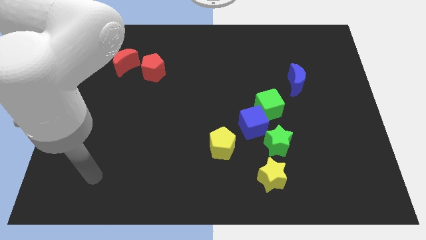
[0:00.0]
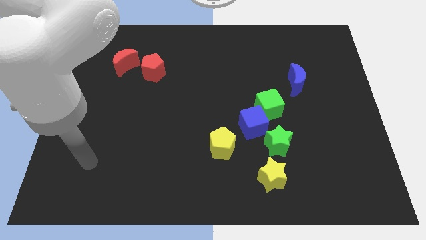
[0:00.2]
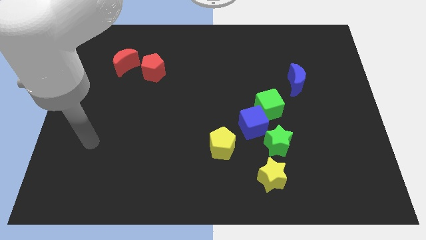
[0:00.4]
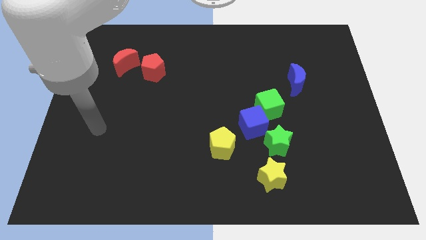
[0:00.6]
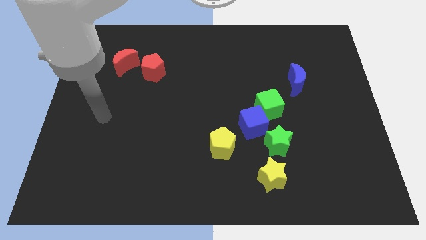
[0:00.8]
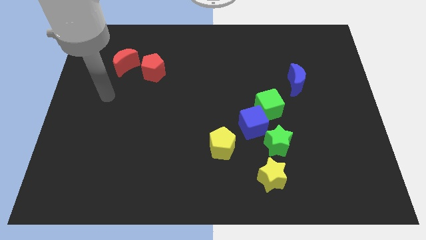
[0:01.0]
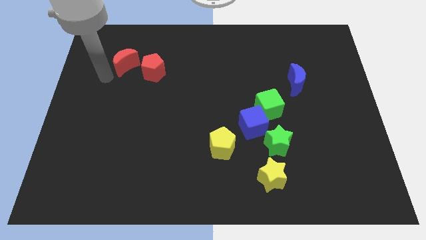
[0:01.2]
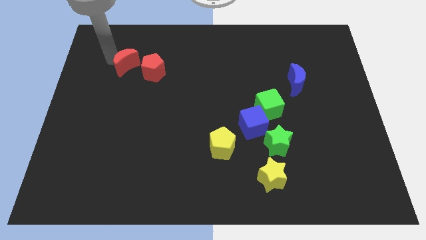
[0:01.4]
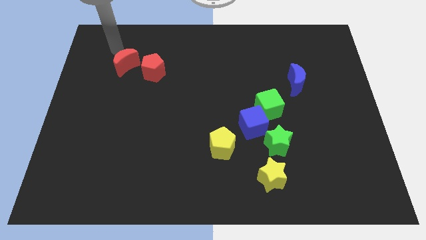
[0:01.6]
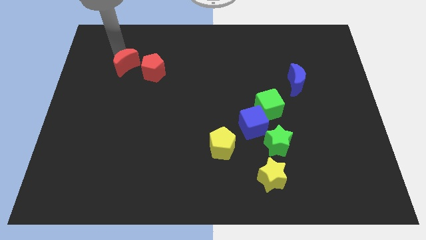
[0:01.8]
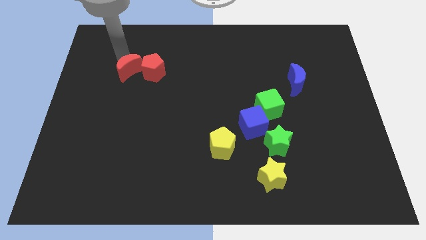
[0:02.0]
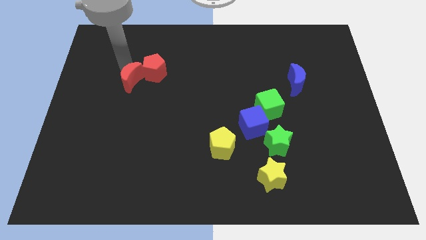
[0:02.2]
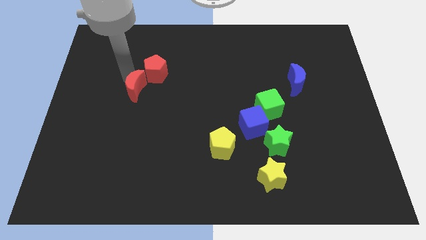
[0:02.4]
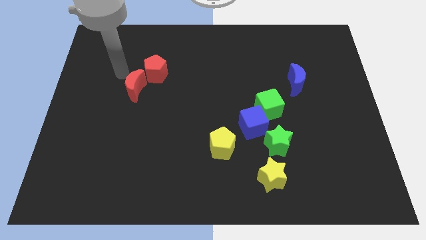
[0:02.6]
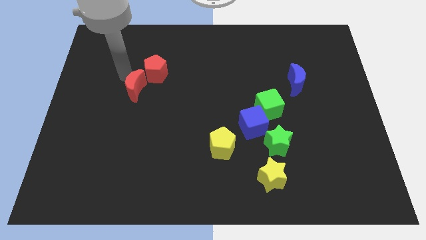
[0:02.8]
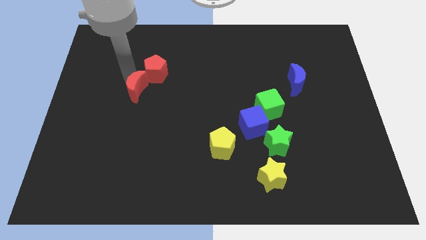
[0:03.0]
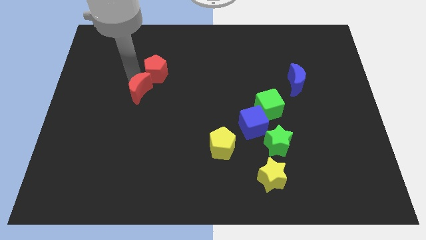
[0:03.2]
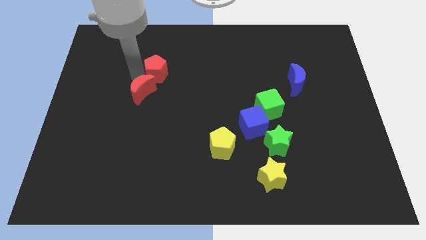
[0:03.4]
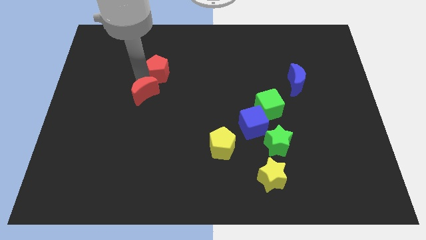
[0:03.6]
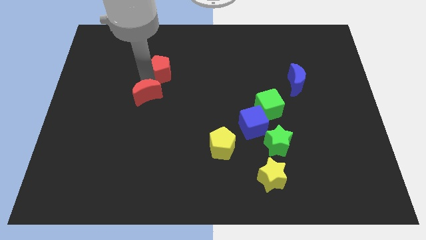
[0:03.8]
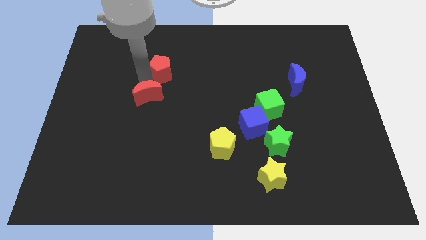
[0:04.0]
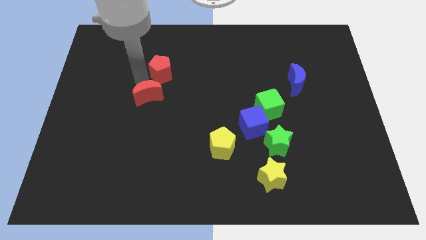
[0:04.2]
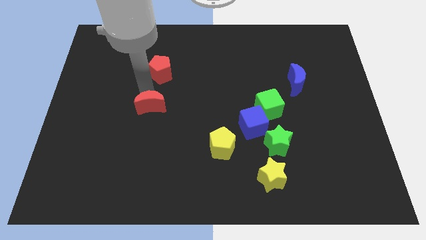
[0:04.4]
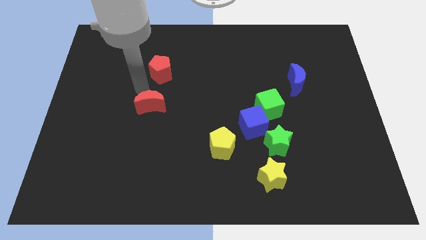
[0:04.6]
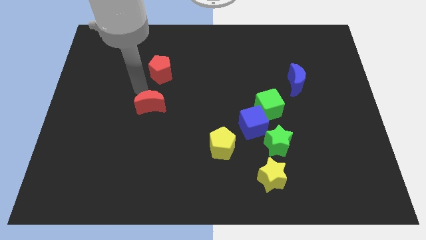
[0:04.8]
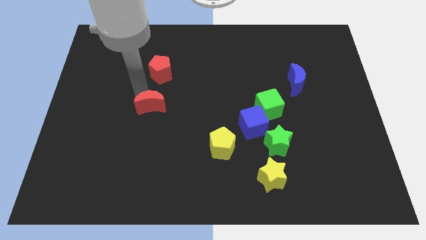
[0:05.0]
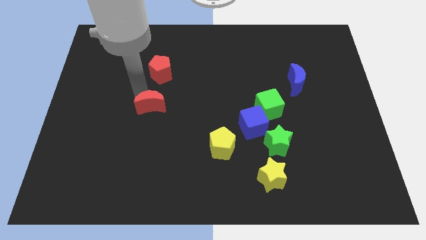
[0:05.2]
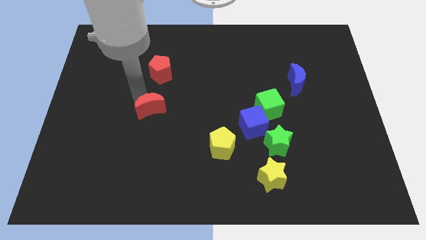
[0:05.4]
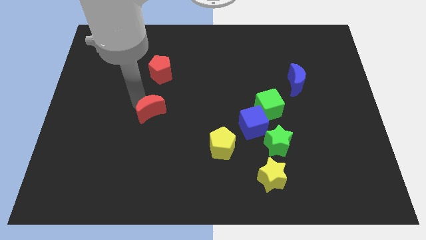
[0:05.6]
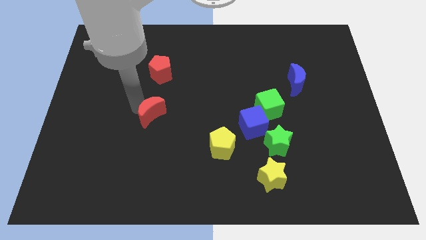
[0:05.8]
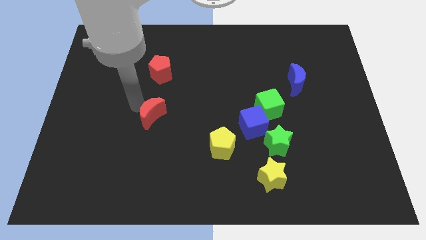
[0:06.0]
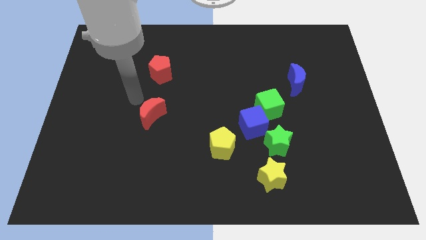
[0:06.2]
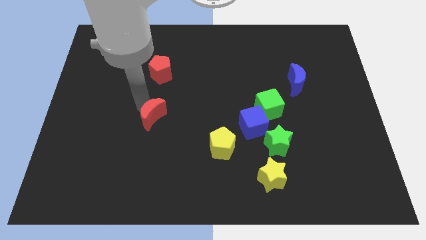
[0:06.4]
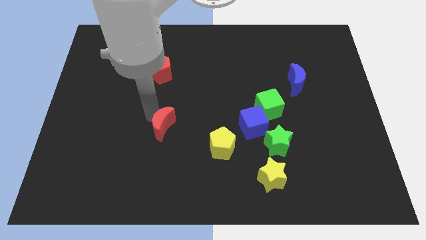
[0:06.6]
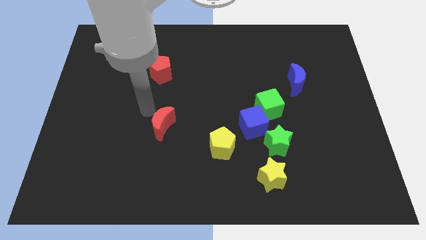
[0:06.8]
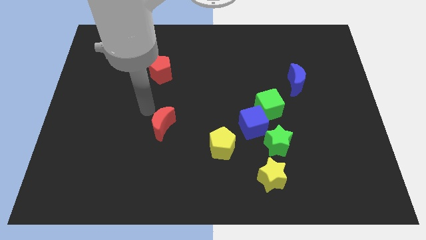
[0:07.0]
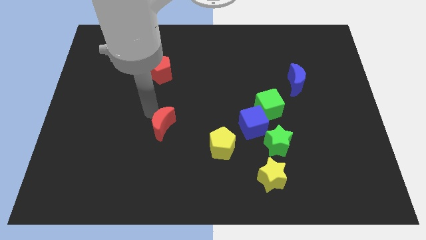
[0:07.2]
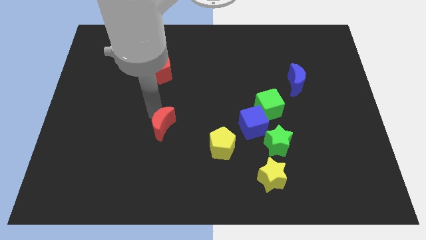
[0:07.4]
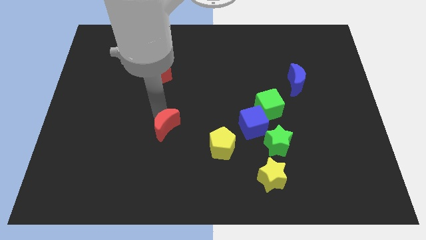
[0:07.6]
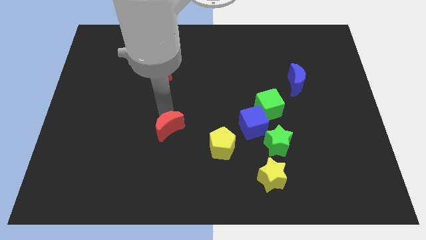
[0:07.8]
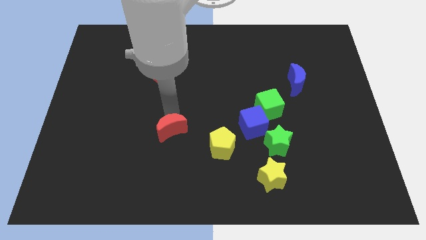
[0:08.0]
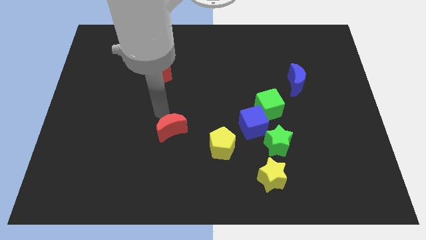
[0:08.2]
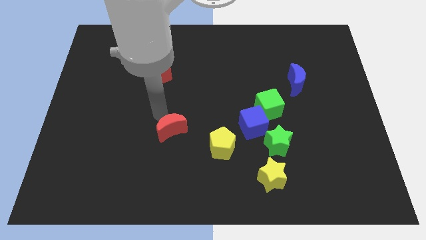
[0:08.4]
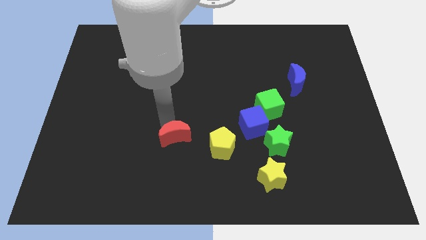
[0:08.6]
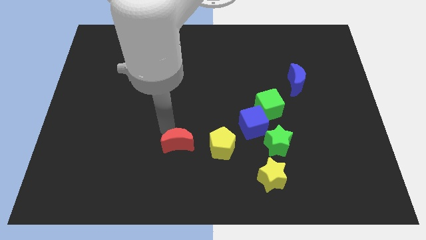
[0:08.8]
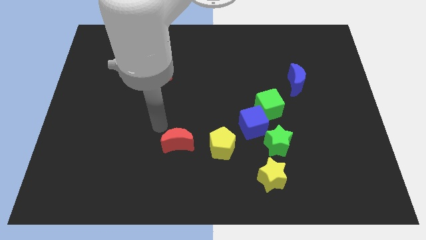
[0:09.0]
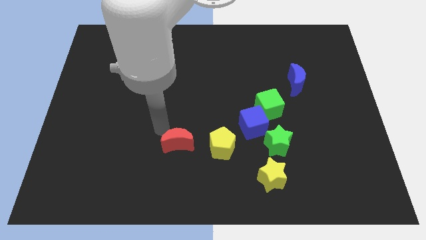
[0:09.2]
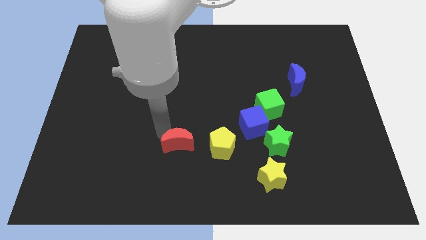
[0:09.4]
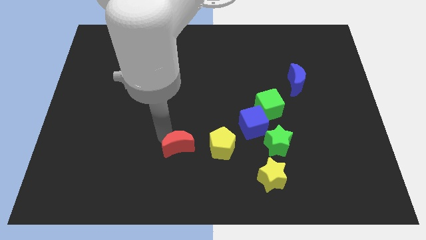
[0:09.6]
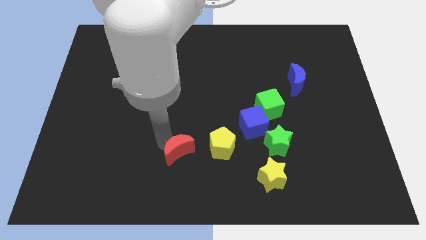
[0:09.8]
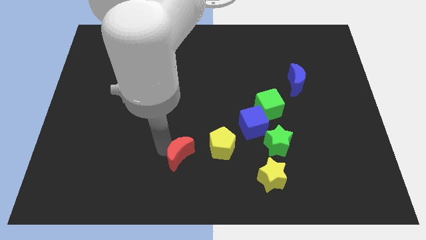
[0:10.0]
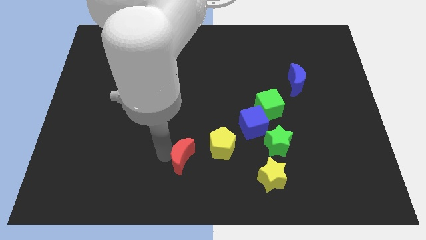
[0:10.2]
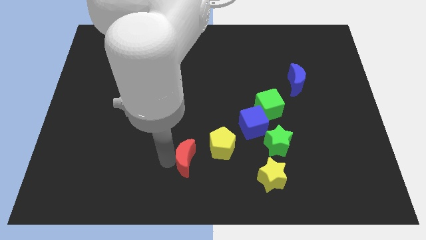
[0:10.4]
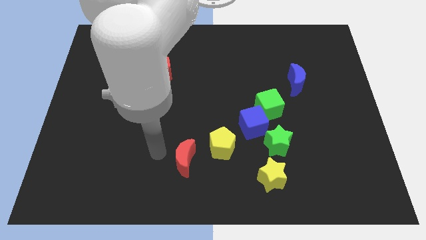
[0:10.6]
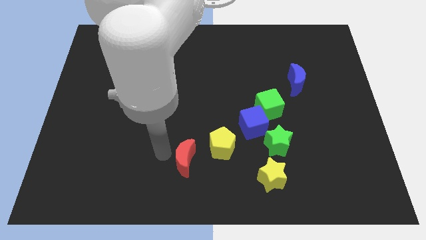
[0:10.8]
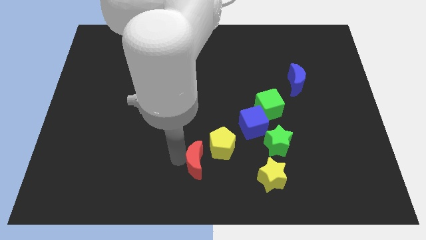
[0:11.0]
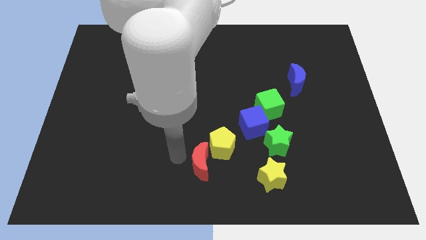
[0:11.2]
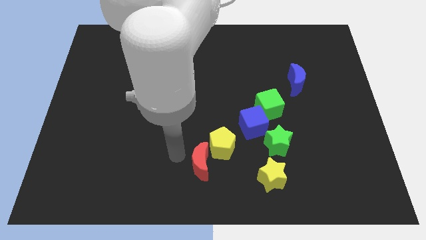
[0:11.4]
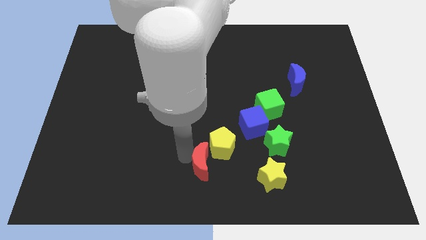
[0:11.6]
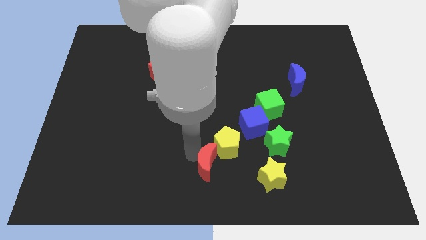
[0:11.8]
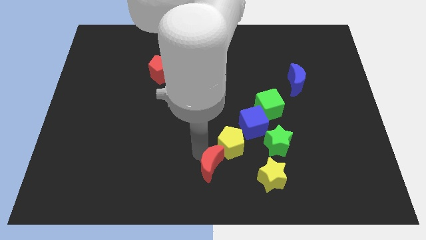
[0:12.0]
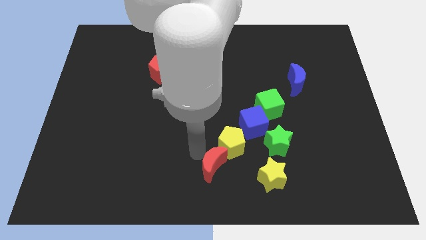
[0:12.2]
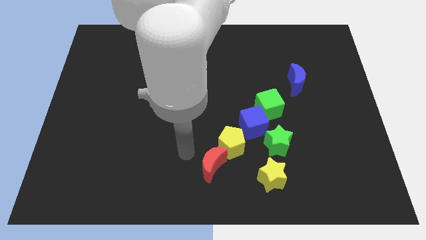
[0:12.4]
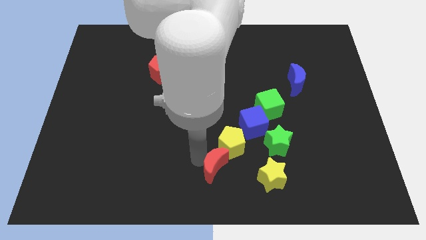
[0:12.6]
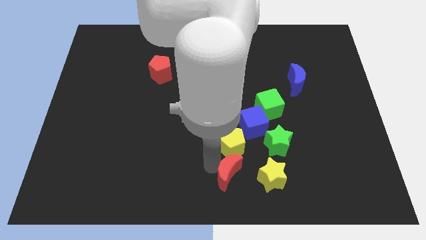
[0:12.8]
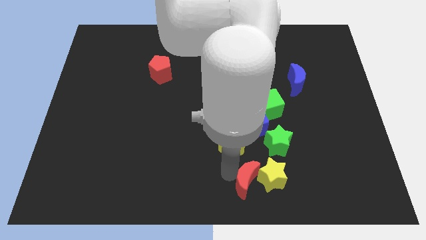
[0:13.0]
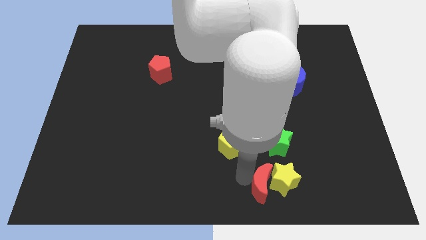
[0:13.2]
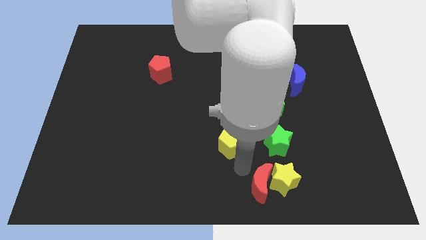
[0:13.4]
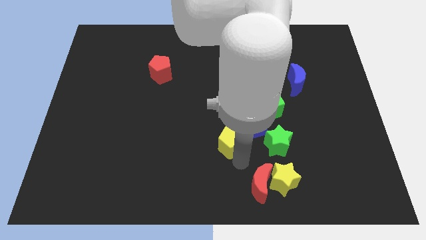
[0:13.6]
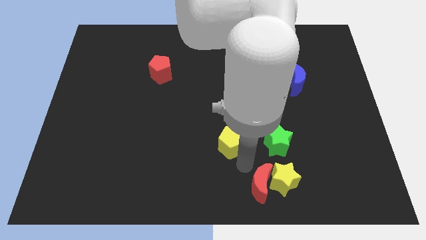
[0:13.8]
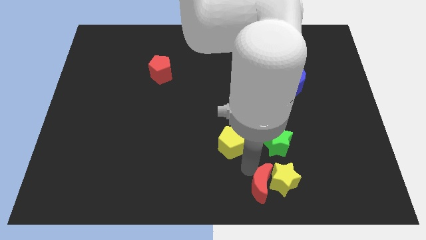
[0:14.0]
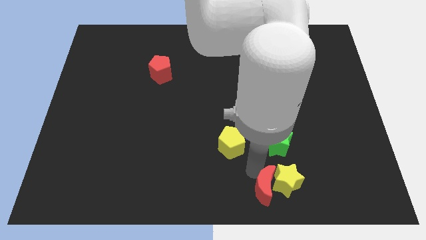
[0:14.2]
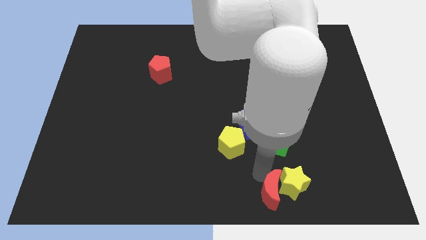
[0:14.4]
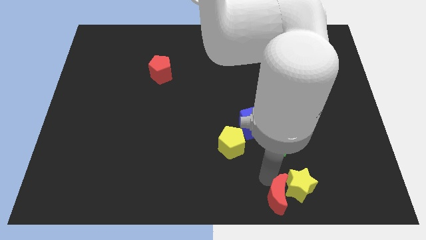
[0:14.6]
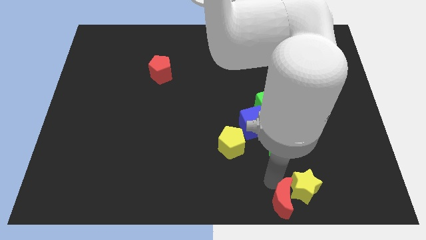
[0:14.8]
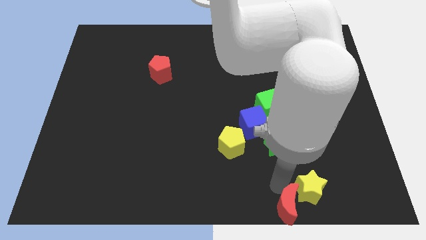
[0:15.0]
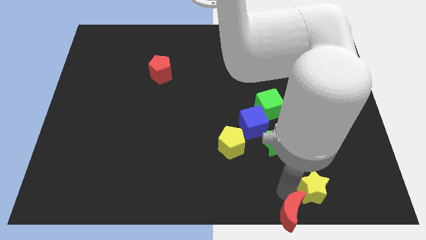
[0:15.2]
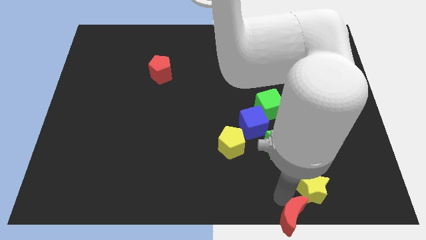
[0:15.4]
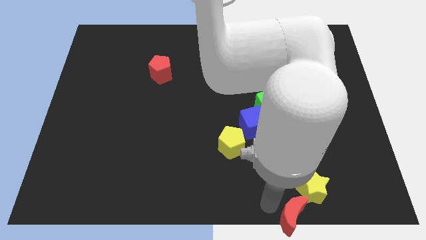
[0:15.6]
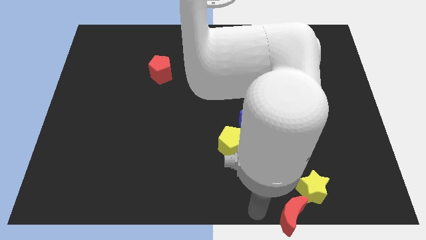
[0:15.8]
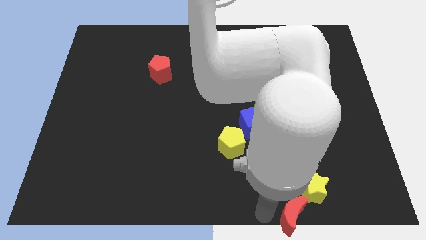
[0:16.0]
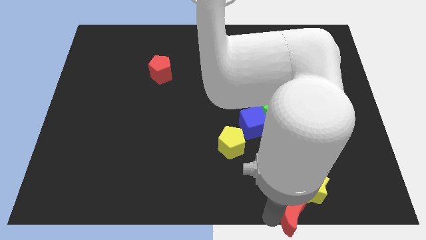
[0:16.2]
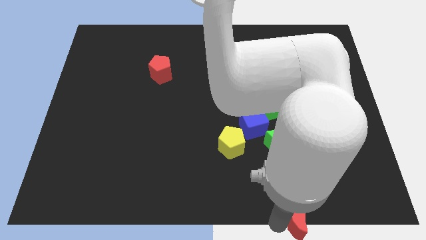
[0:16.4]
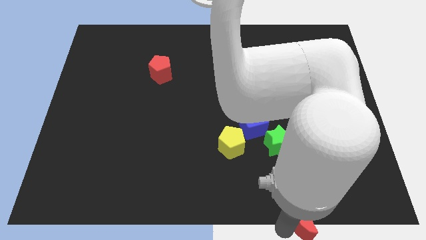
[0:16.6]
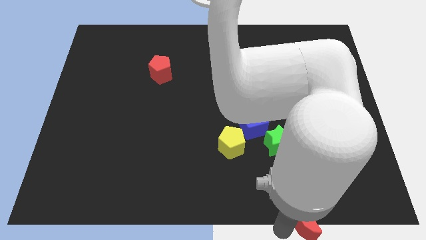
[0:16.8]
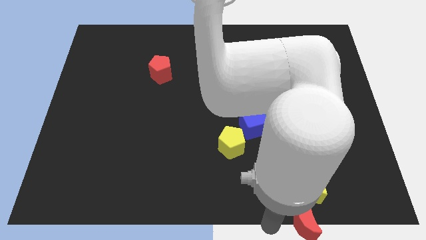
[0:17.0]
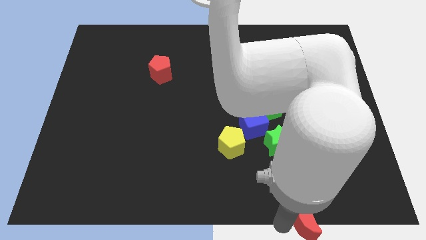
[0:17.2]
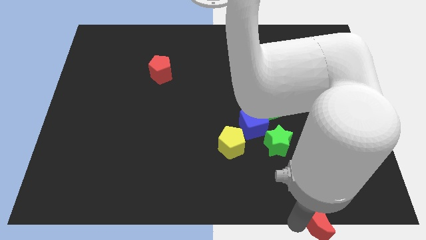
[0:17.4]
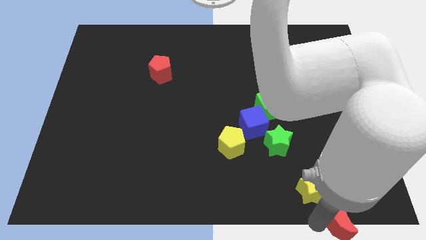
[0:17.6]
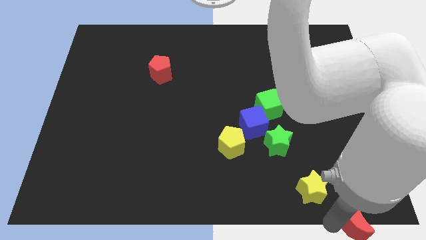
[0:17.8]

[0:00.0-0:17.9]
put the red moon to the bottom right
